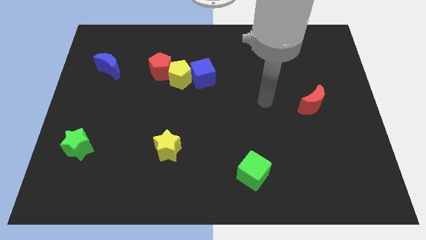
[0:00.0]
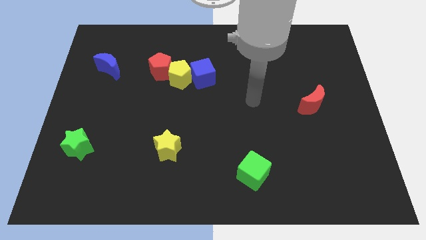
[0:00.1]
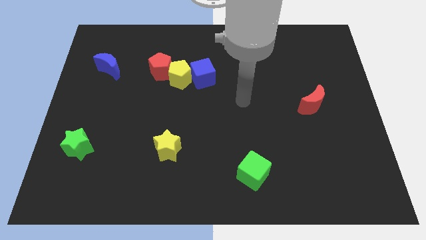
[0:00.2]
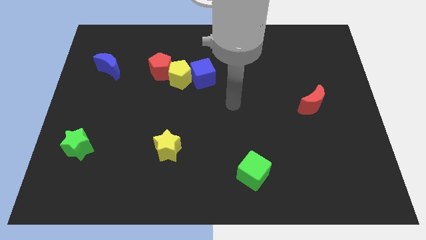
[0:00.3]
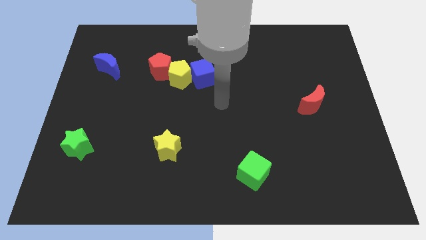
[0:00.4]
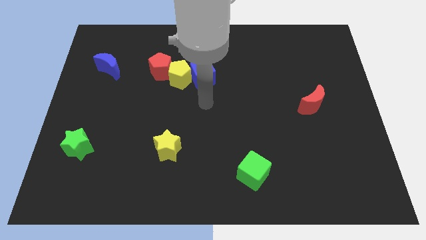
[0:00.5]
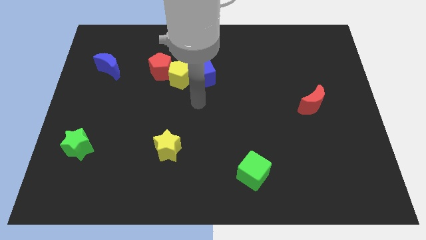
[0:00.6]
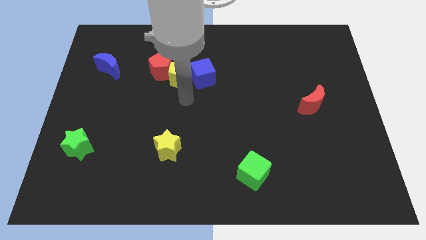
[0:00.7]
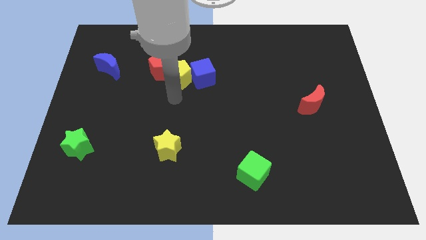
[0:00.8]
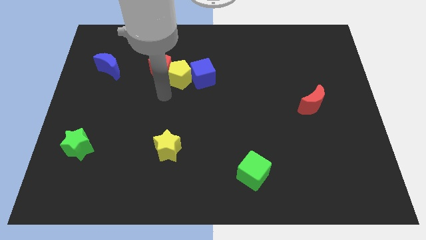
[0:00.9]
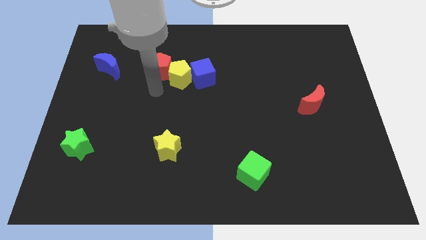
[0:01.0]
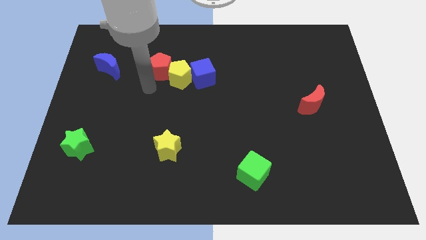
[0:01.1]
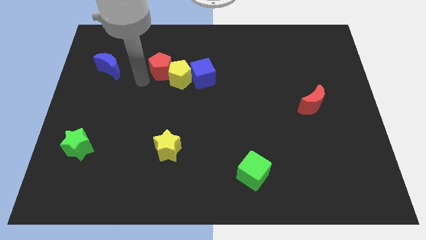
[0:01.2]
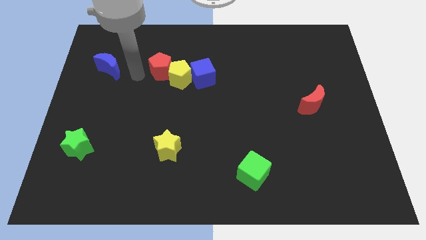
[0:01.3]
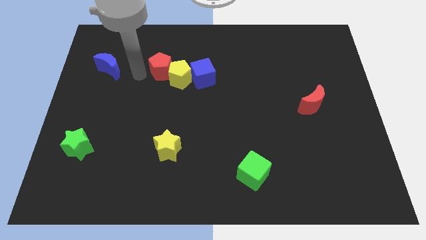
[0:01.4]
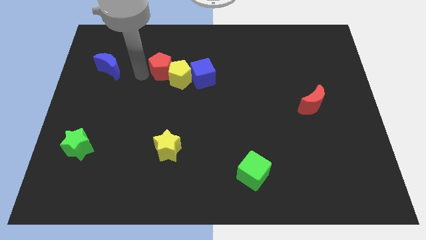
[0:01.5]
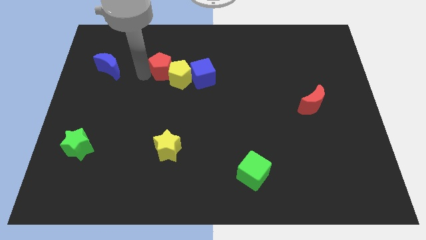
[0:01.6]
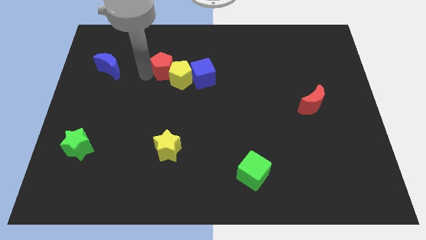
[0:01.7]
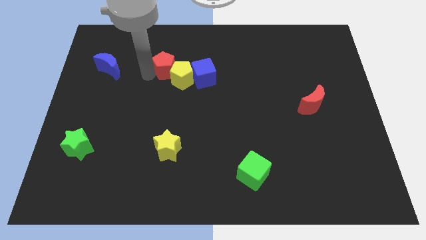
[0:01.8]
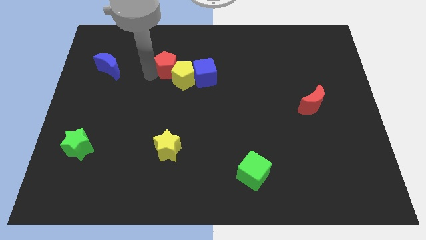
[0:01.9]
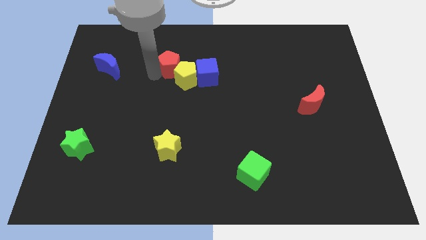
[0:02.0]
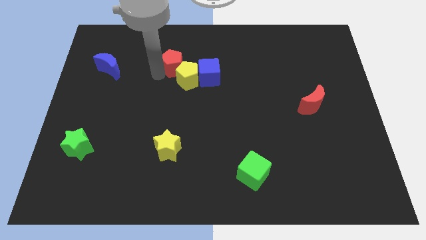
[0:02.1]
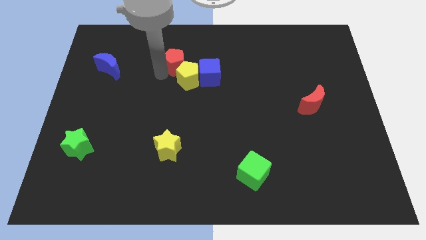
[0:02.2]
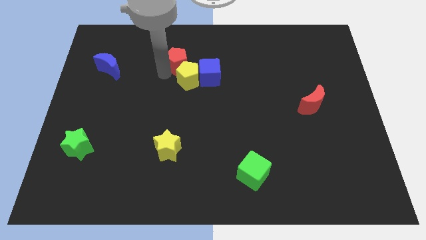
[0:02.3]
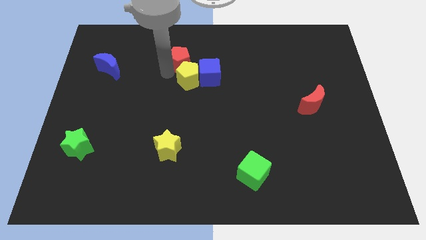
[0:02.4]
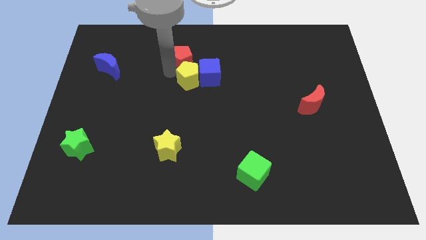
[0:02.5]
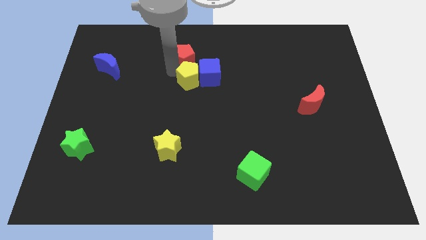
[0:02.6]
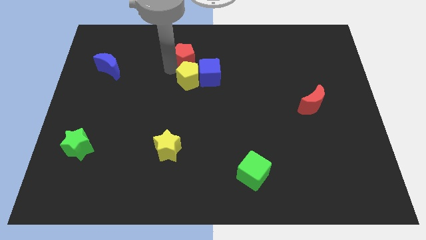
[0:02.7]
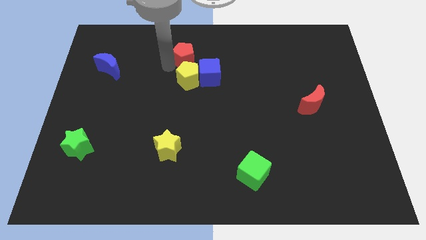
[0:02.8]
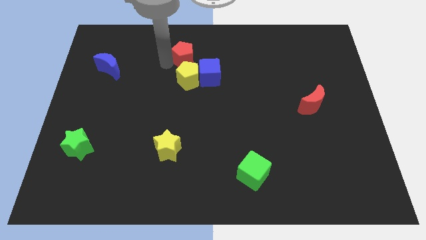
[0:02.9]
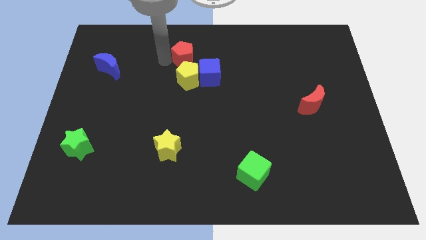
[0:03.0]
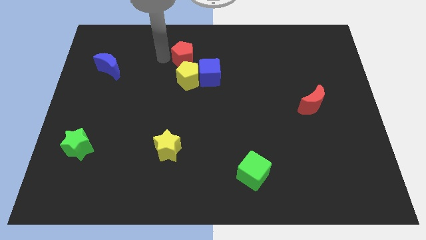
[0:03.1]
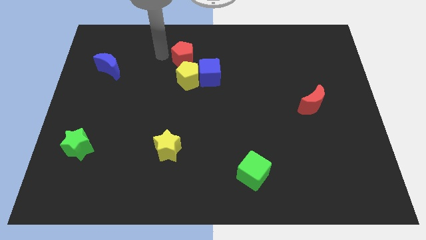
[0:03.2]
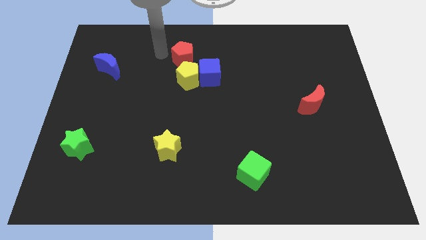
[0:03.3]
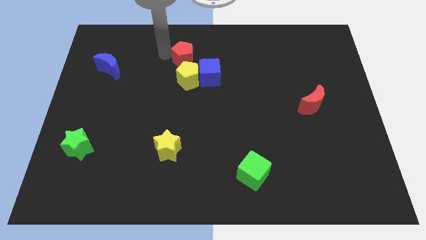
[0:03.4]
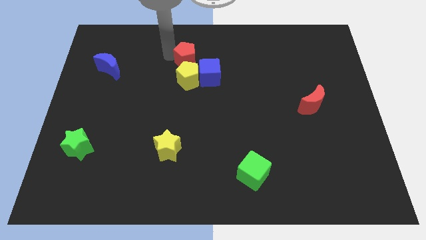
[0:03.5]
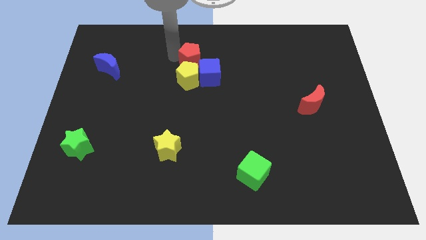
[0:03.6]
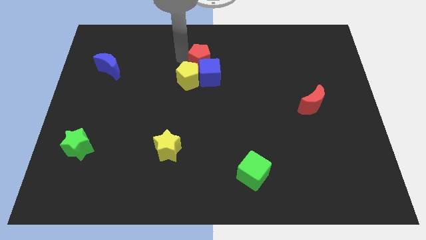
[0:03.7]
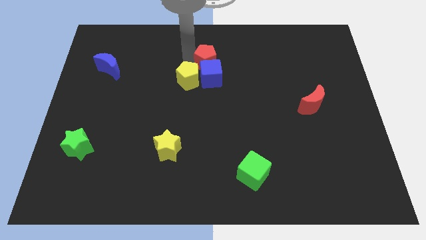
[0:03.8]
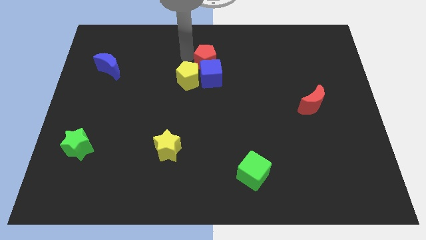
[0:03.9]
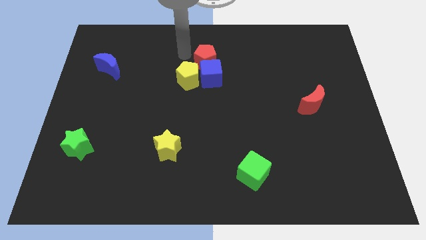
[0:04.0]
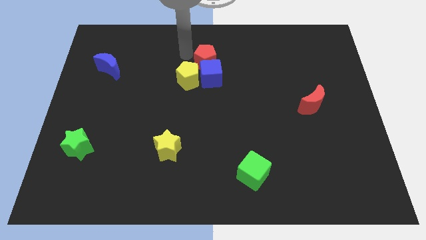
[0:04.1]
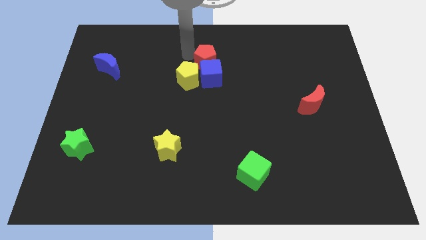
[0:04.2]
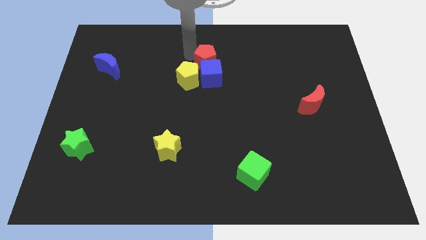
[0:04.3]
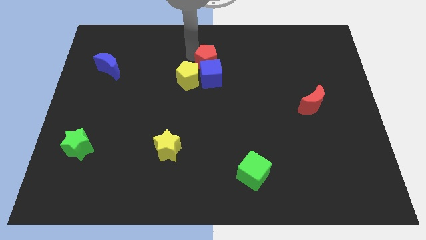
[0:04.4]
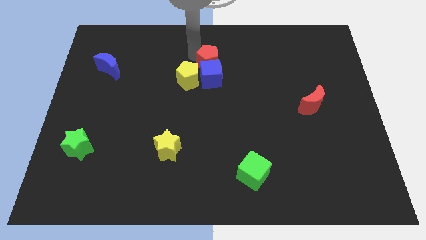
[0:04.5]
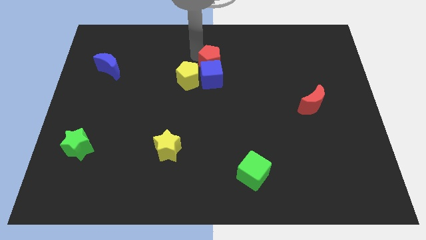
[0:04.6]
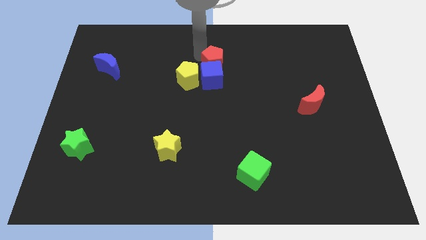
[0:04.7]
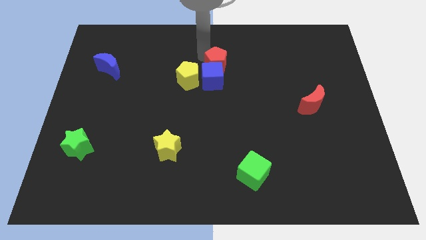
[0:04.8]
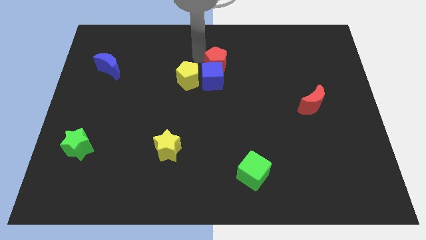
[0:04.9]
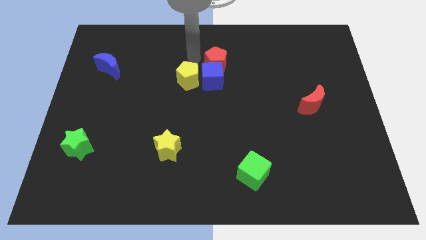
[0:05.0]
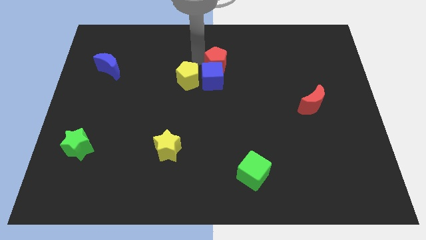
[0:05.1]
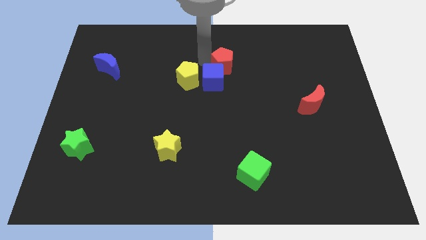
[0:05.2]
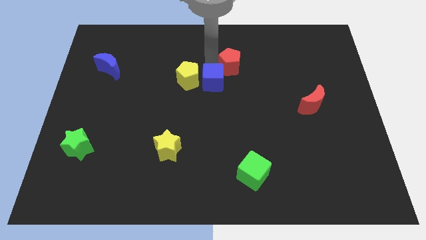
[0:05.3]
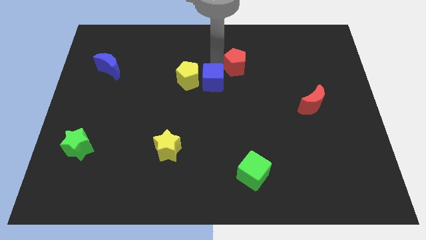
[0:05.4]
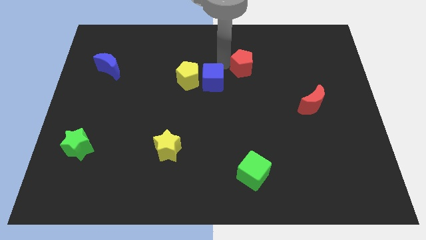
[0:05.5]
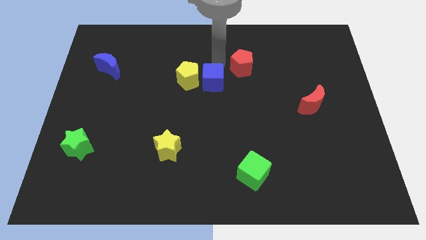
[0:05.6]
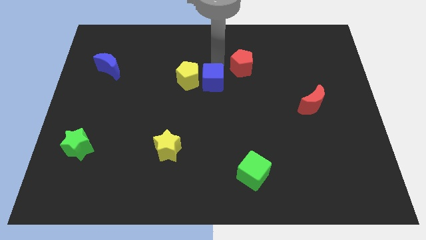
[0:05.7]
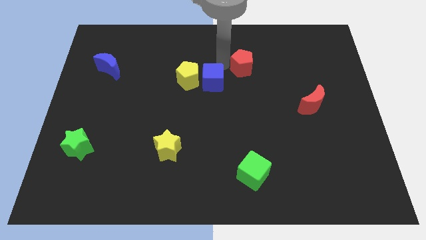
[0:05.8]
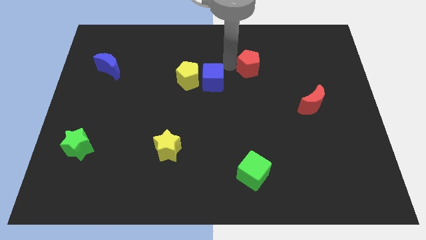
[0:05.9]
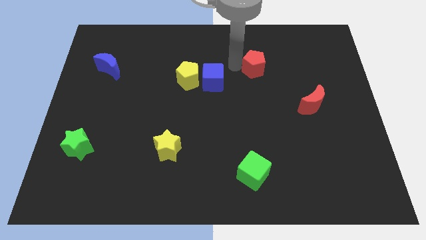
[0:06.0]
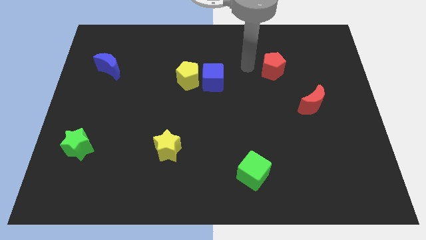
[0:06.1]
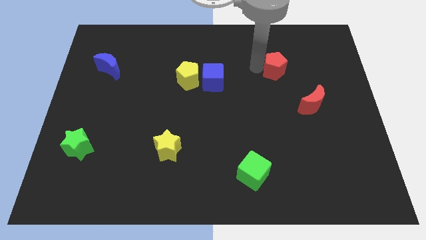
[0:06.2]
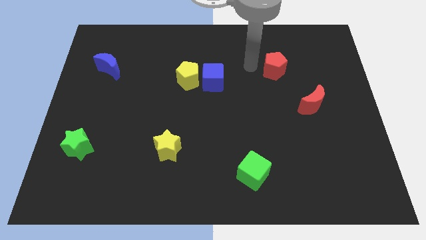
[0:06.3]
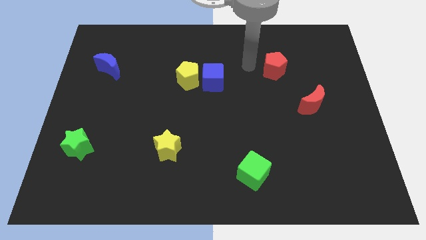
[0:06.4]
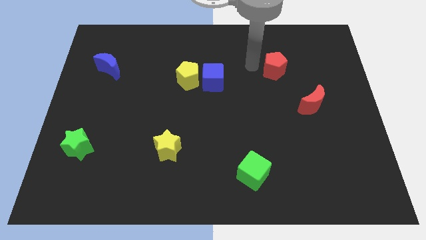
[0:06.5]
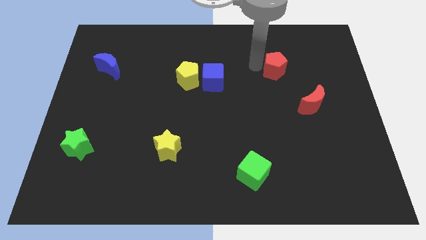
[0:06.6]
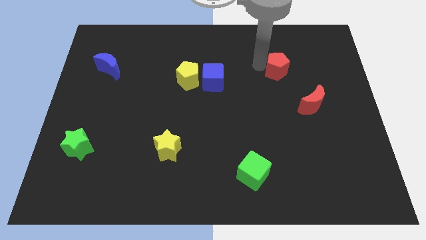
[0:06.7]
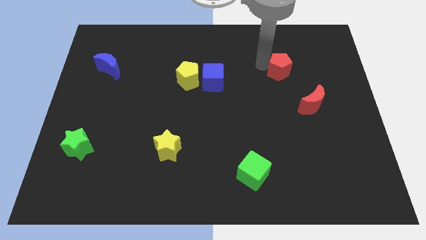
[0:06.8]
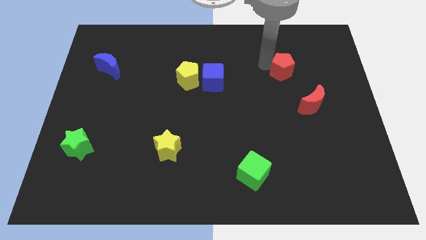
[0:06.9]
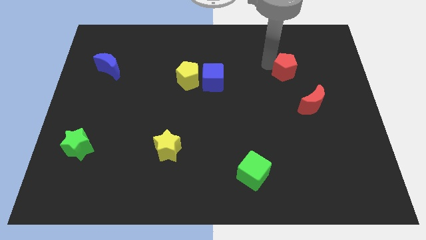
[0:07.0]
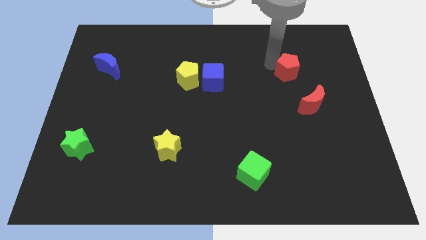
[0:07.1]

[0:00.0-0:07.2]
put the red pentagon to the top side of the red moon
